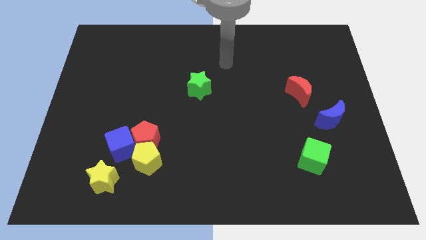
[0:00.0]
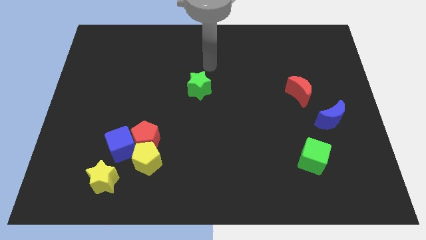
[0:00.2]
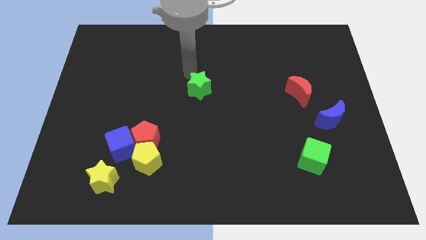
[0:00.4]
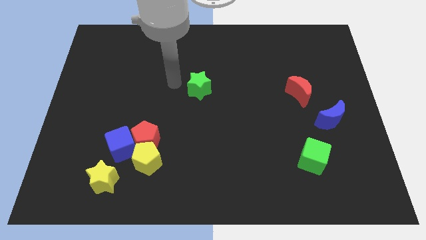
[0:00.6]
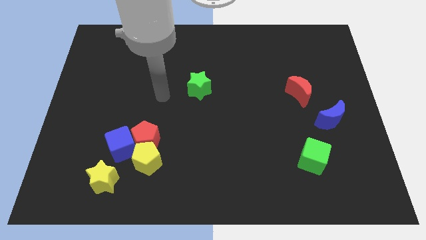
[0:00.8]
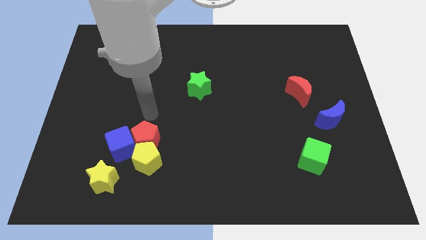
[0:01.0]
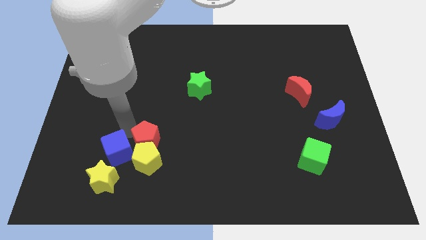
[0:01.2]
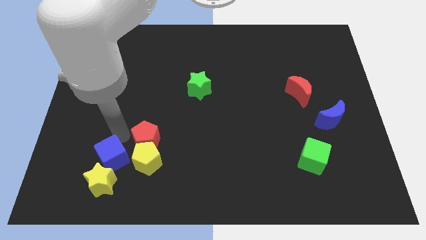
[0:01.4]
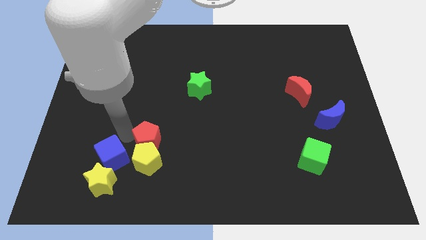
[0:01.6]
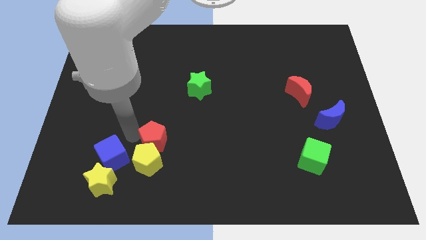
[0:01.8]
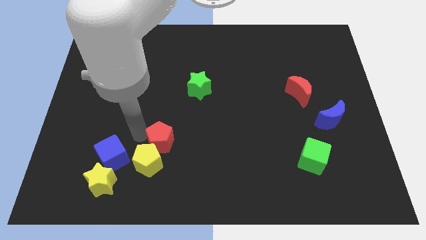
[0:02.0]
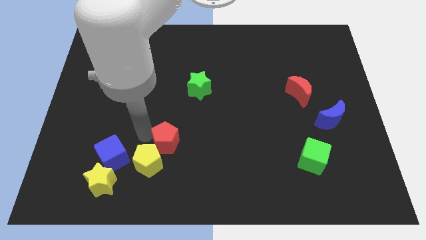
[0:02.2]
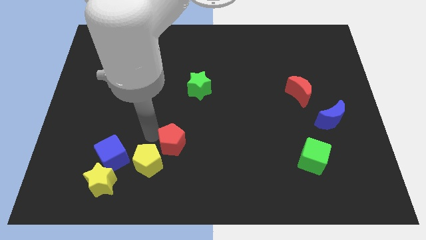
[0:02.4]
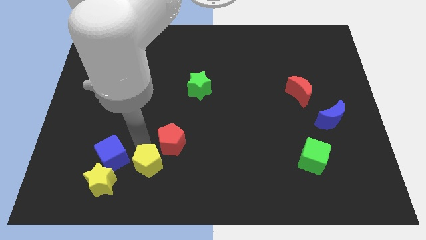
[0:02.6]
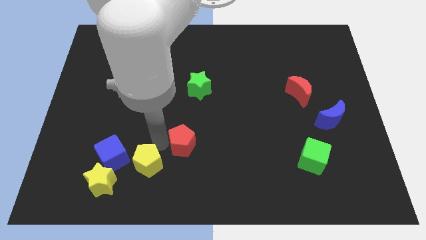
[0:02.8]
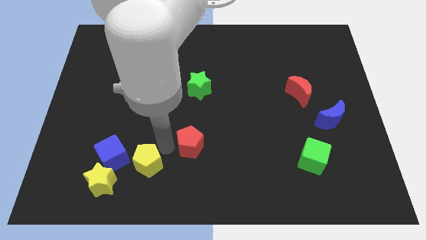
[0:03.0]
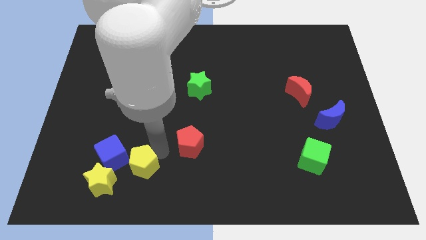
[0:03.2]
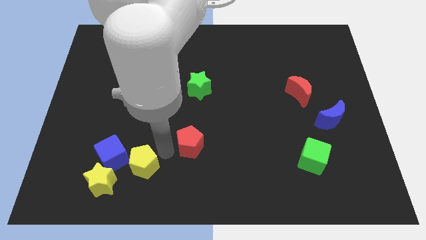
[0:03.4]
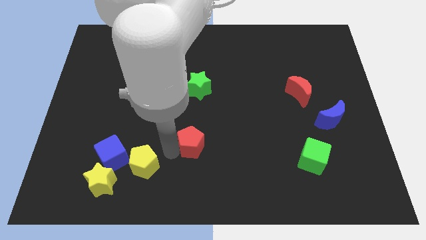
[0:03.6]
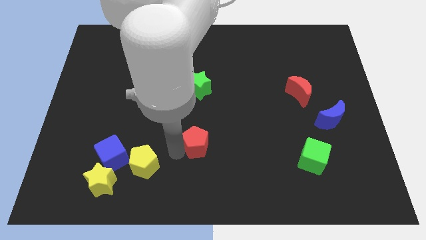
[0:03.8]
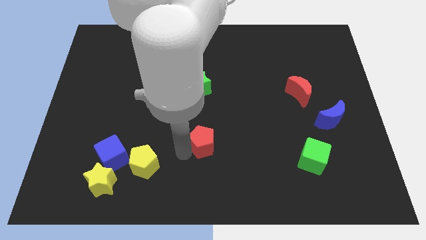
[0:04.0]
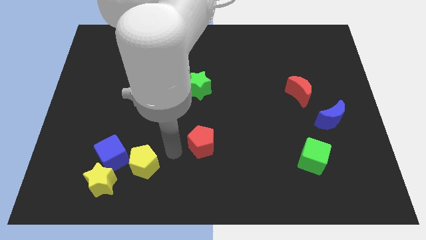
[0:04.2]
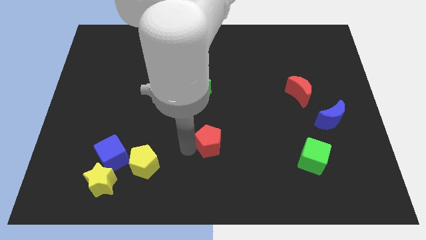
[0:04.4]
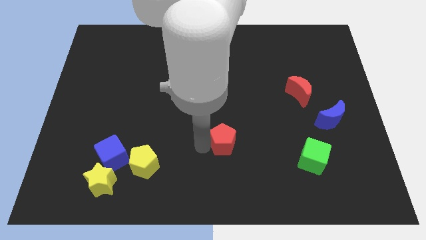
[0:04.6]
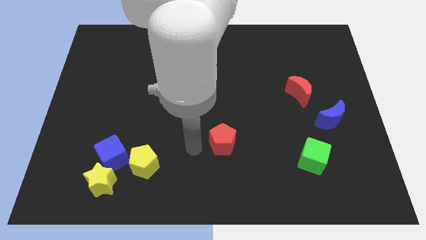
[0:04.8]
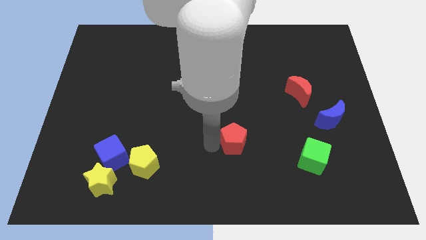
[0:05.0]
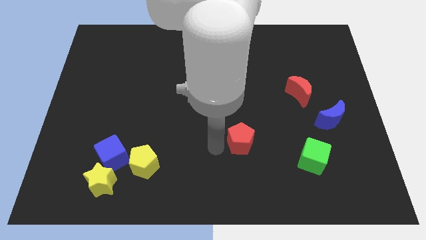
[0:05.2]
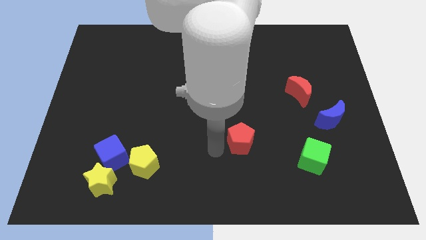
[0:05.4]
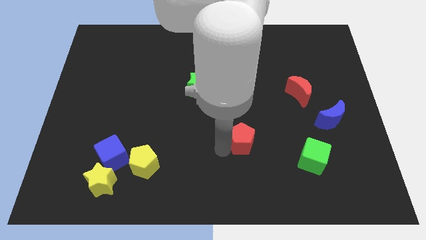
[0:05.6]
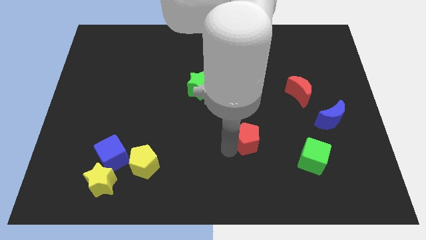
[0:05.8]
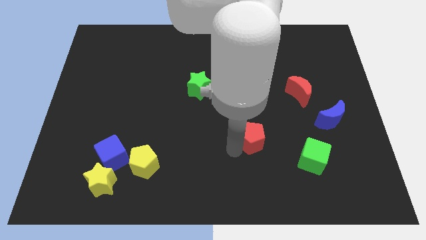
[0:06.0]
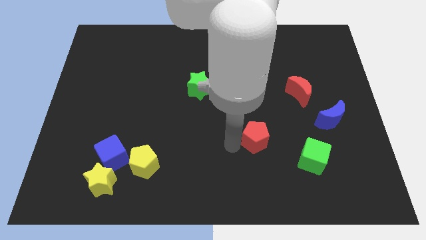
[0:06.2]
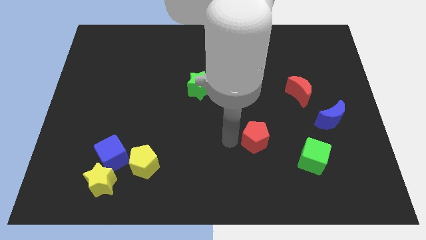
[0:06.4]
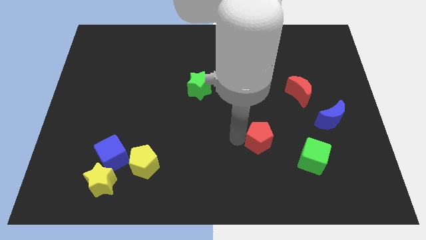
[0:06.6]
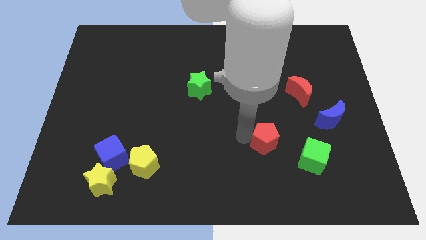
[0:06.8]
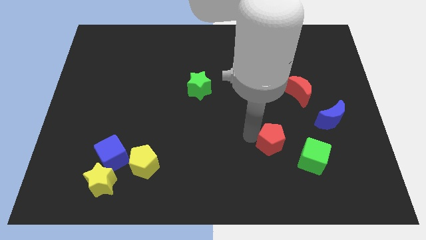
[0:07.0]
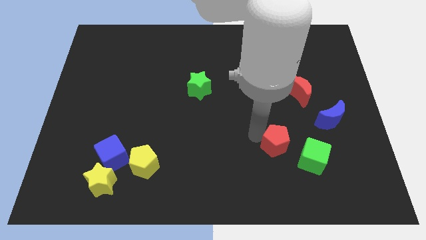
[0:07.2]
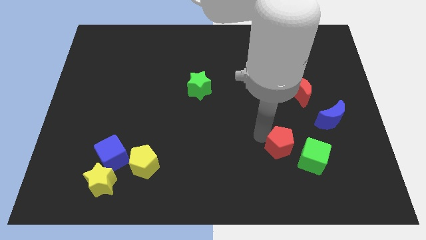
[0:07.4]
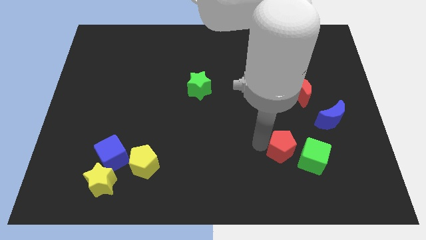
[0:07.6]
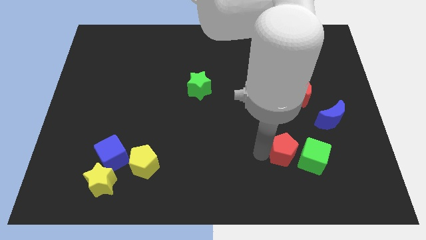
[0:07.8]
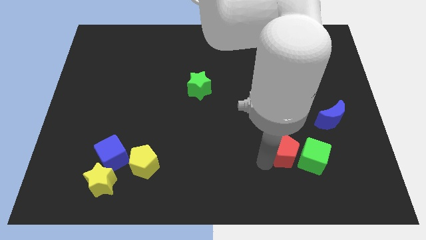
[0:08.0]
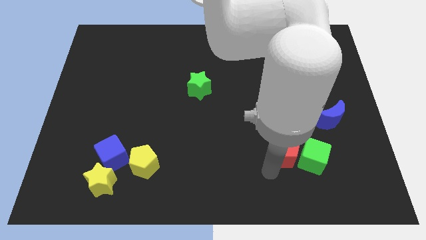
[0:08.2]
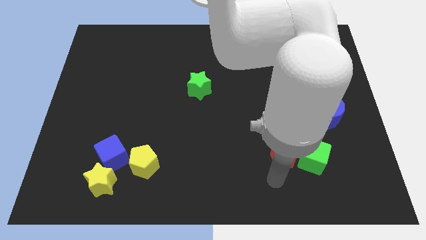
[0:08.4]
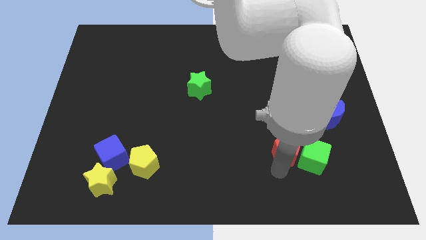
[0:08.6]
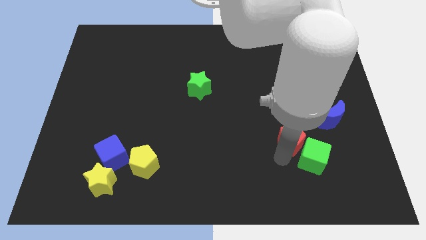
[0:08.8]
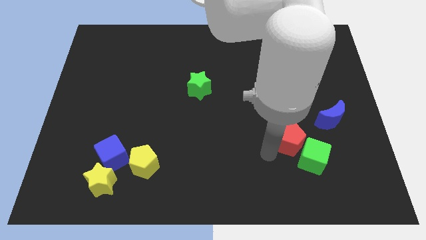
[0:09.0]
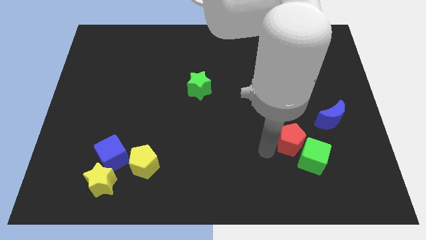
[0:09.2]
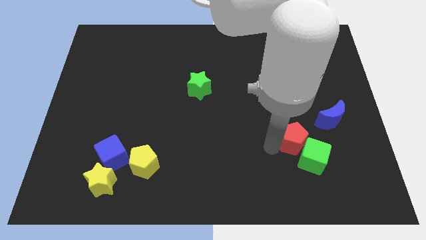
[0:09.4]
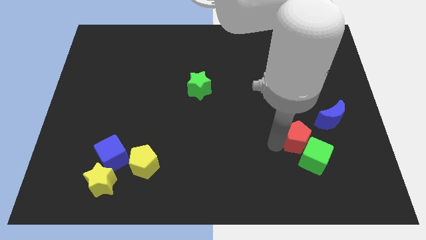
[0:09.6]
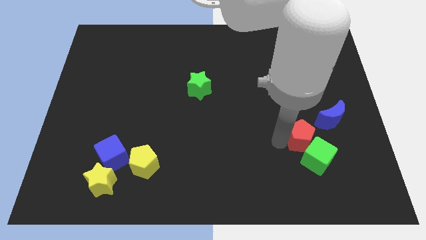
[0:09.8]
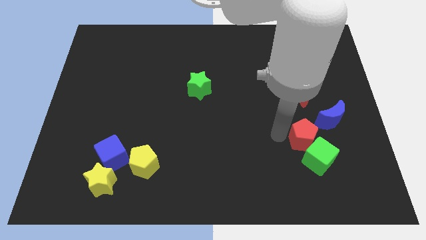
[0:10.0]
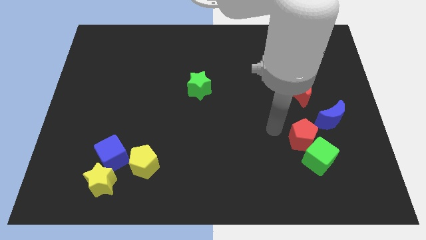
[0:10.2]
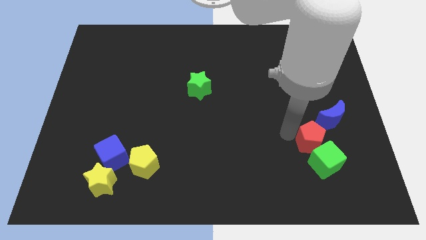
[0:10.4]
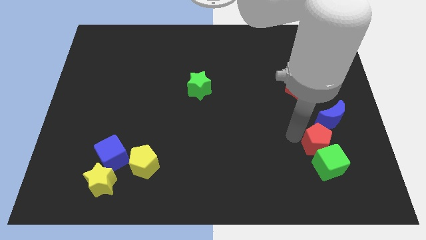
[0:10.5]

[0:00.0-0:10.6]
slide the red pentagon below the blue moon

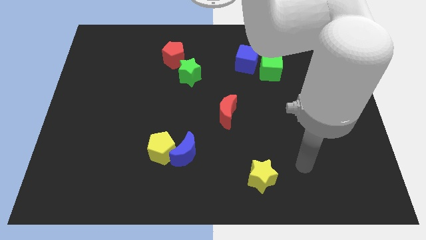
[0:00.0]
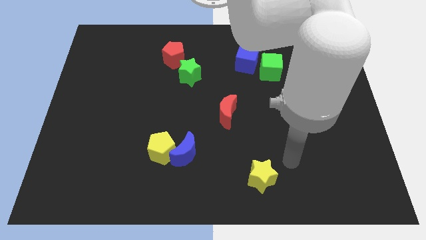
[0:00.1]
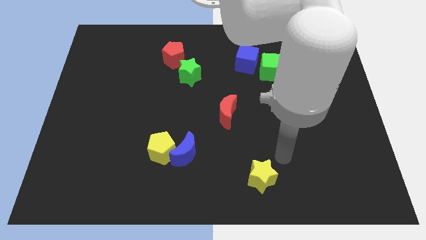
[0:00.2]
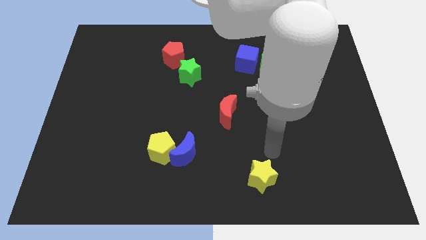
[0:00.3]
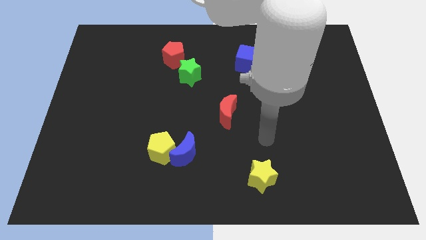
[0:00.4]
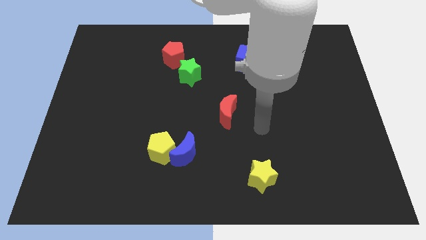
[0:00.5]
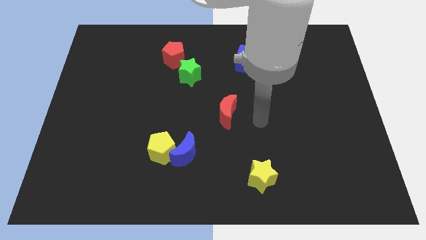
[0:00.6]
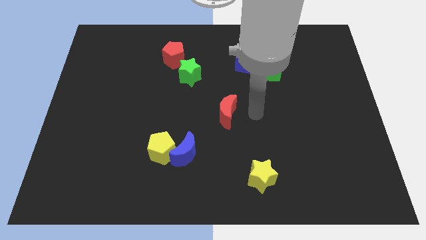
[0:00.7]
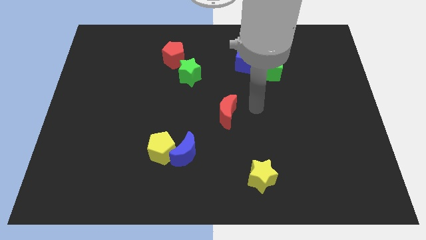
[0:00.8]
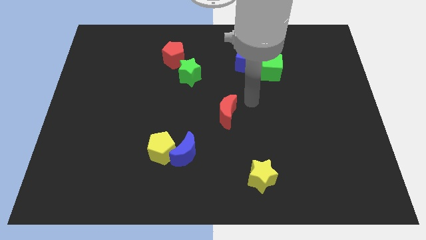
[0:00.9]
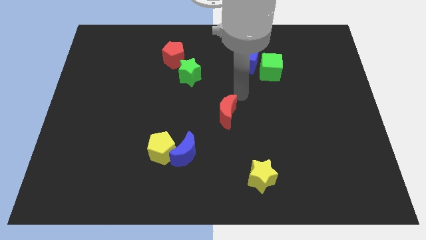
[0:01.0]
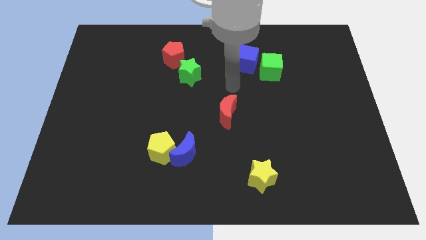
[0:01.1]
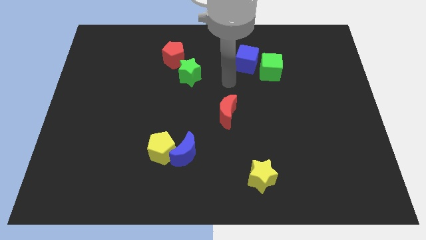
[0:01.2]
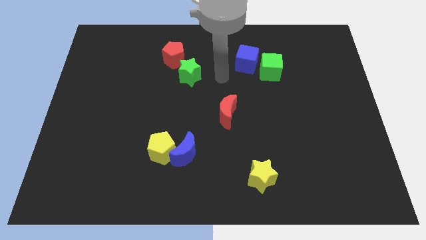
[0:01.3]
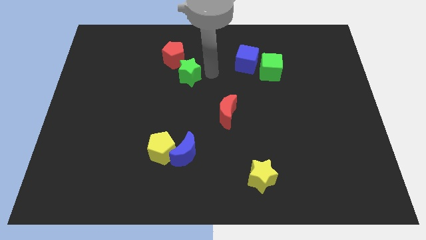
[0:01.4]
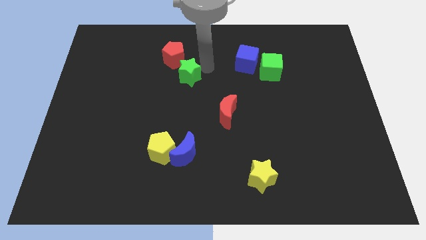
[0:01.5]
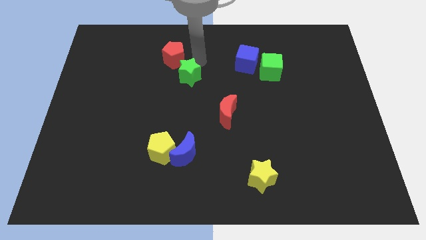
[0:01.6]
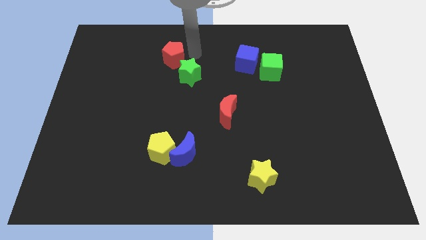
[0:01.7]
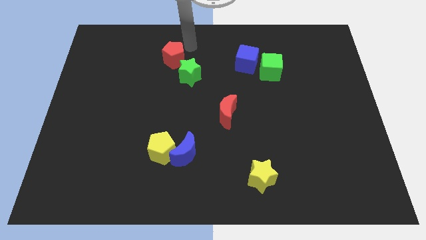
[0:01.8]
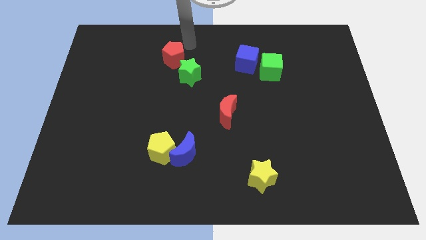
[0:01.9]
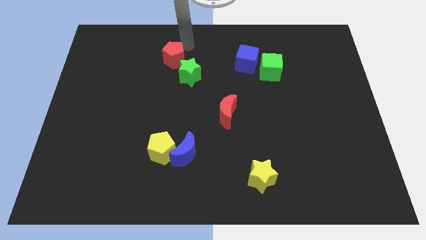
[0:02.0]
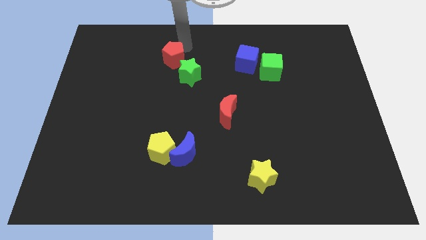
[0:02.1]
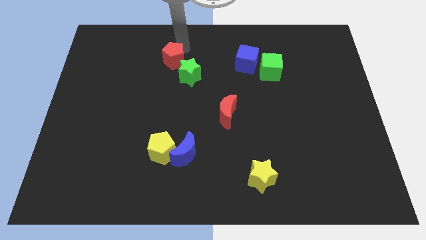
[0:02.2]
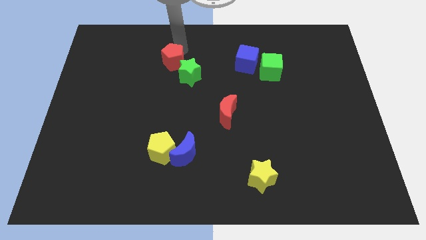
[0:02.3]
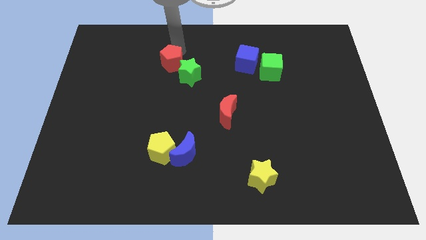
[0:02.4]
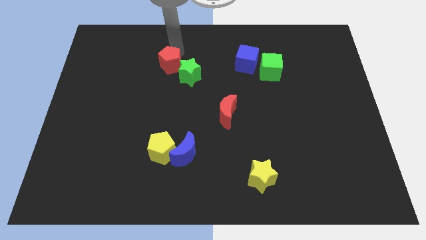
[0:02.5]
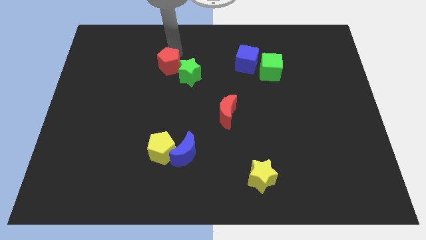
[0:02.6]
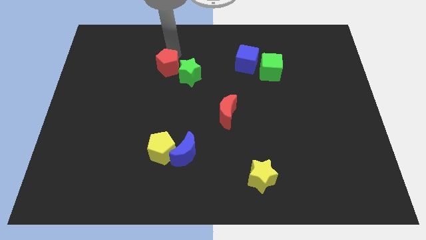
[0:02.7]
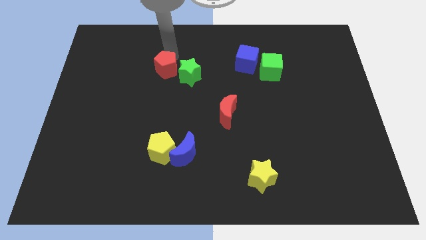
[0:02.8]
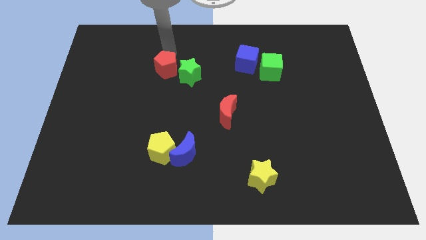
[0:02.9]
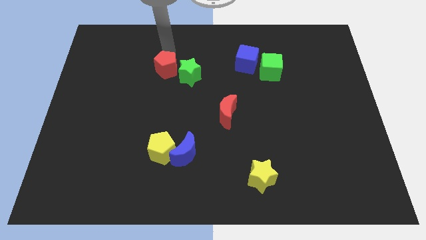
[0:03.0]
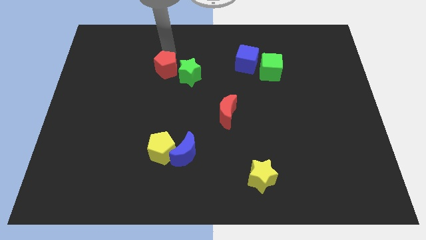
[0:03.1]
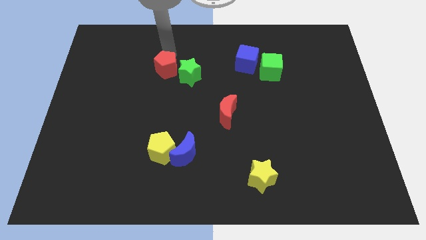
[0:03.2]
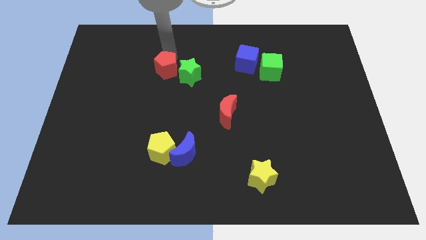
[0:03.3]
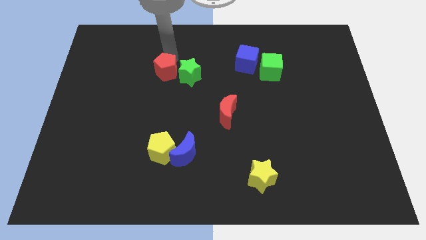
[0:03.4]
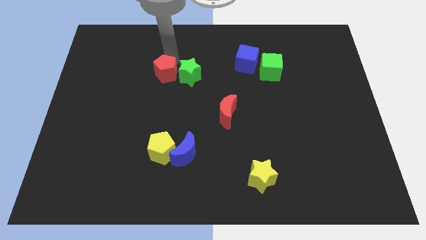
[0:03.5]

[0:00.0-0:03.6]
push the red pentagon to the bottom left side of the green star
